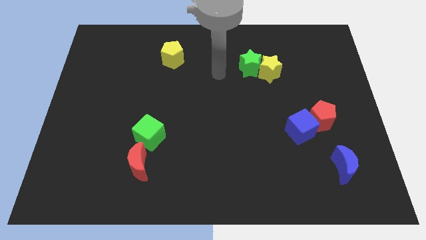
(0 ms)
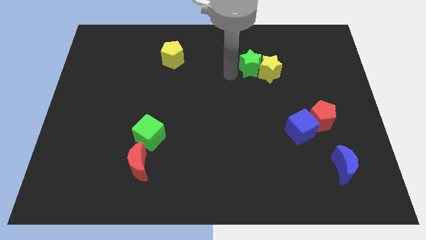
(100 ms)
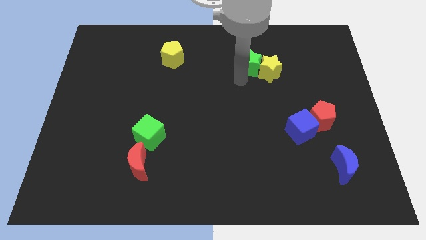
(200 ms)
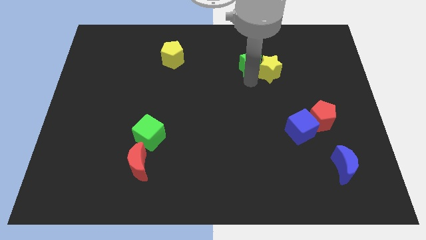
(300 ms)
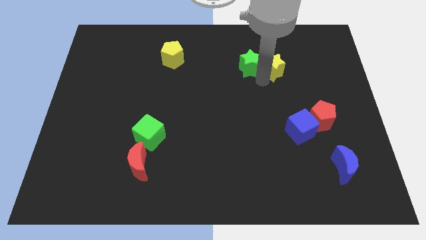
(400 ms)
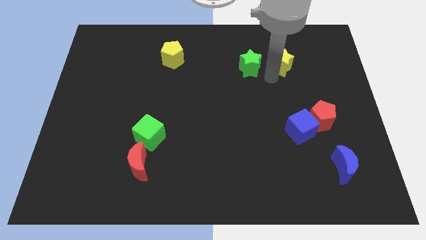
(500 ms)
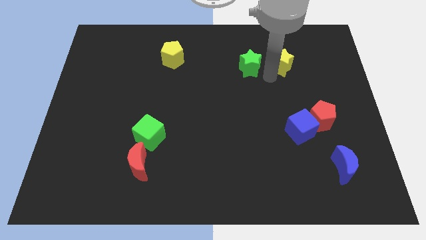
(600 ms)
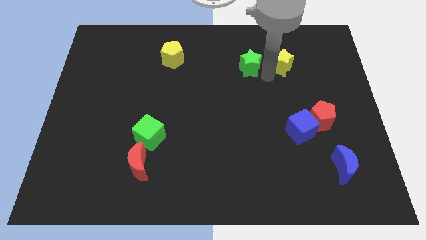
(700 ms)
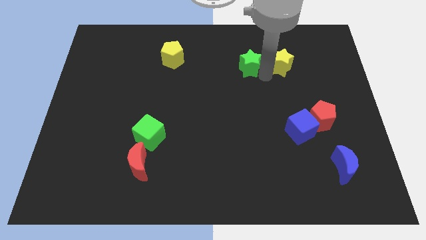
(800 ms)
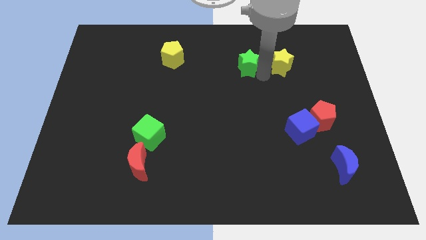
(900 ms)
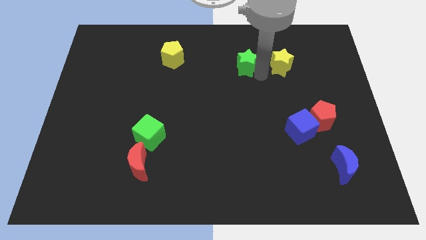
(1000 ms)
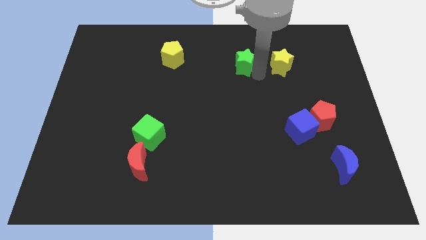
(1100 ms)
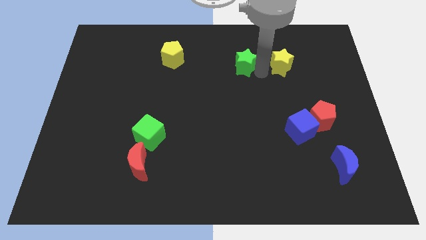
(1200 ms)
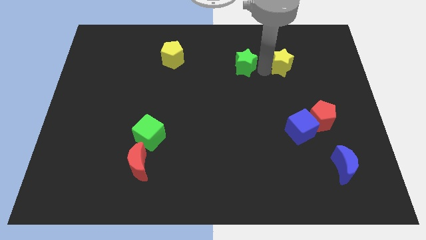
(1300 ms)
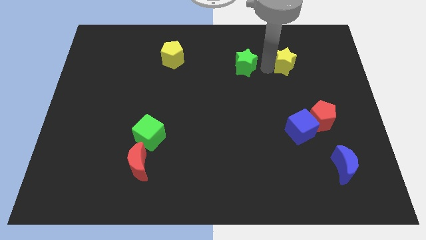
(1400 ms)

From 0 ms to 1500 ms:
move the green star away from the yellow star

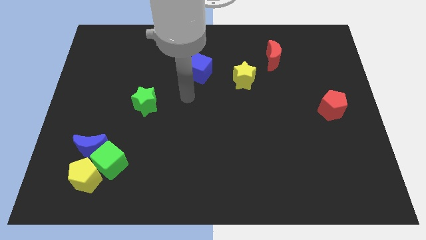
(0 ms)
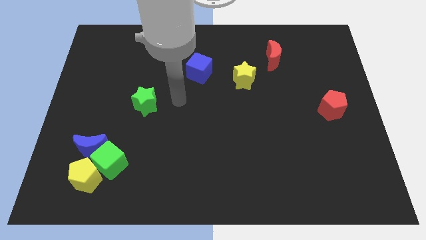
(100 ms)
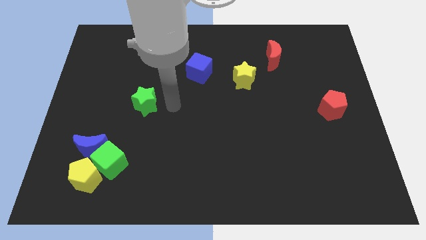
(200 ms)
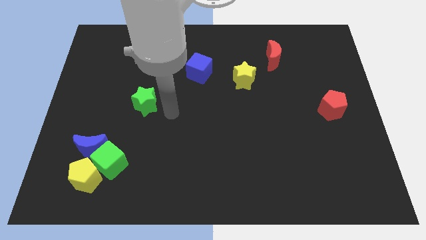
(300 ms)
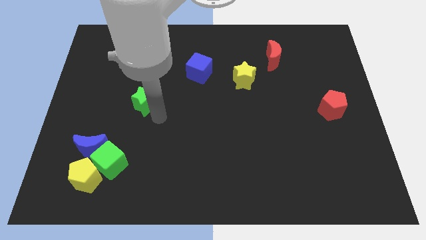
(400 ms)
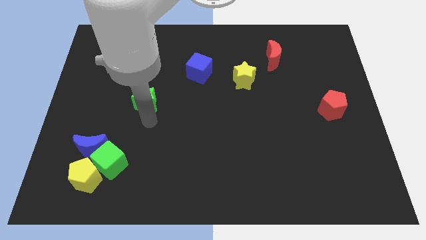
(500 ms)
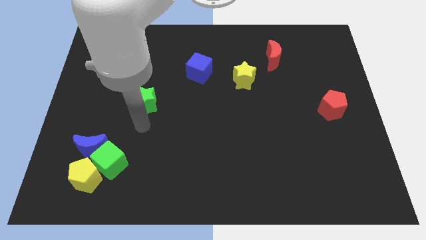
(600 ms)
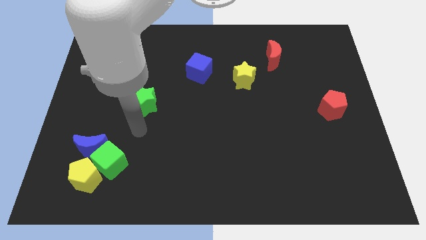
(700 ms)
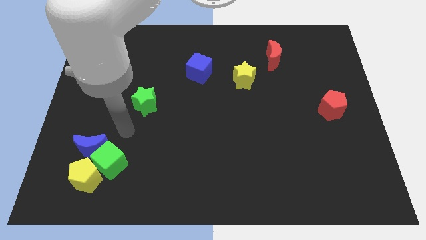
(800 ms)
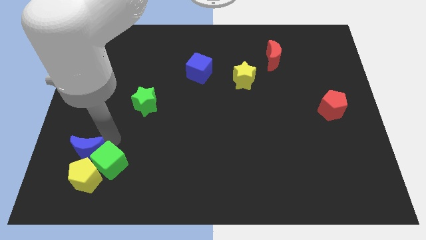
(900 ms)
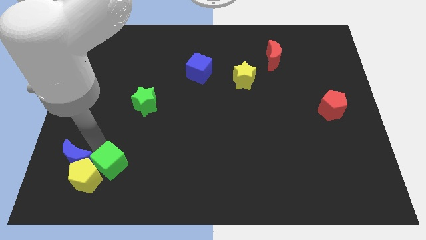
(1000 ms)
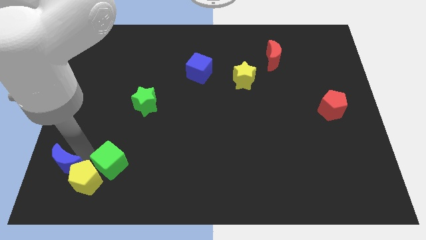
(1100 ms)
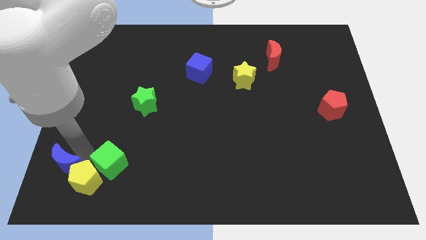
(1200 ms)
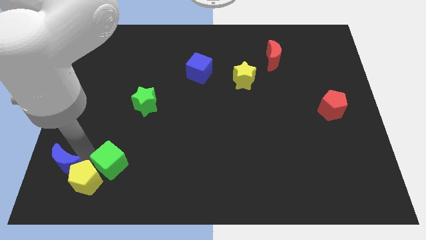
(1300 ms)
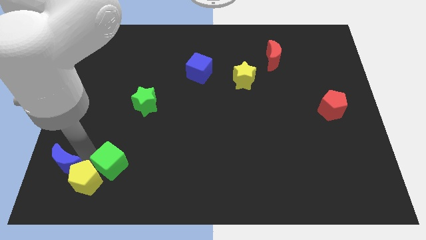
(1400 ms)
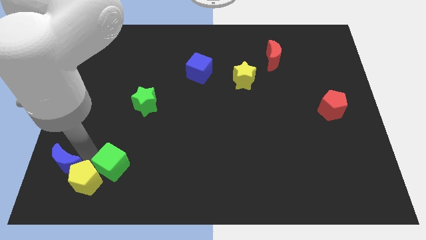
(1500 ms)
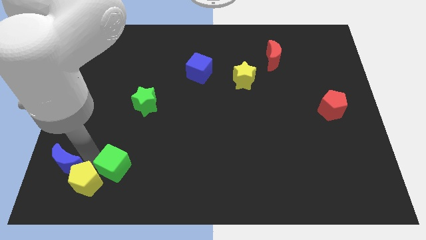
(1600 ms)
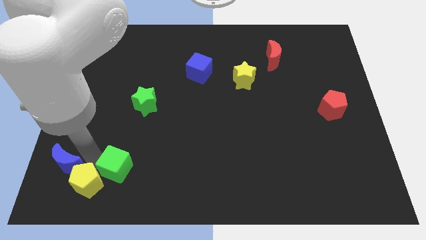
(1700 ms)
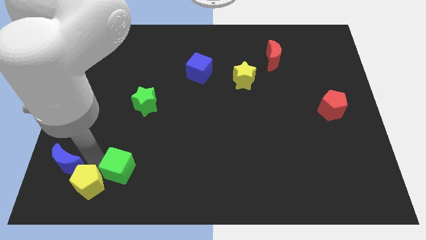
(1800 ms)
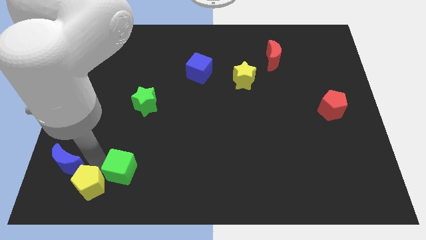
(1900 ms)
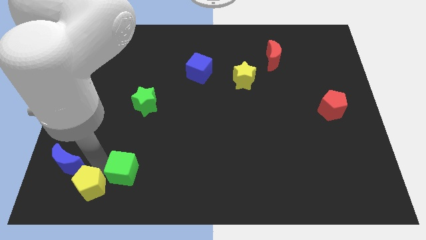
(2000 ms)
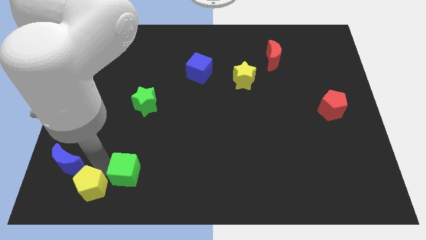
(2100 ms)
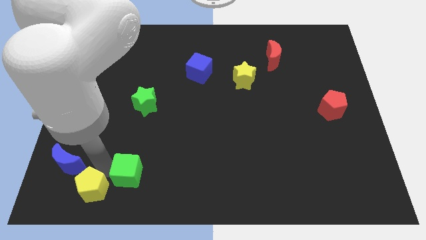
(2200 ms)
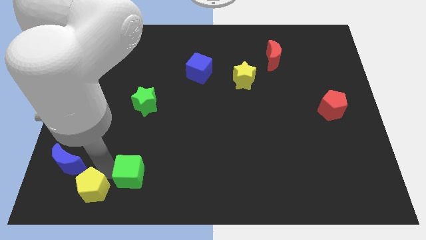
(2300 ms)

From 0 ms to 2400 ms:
pull the green cube apart from the yellow pentagon and blue moon

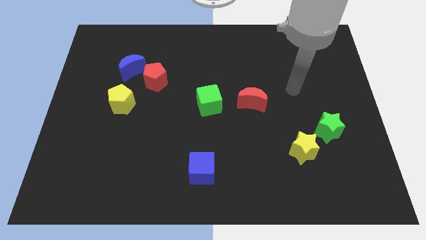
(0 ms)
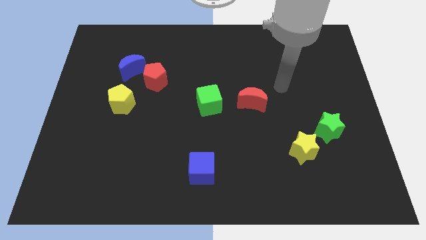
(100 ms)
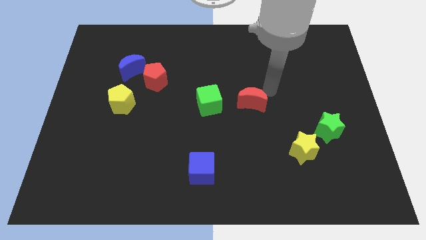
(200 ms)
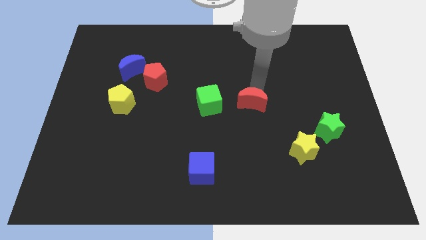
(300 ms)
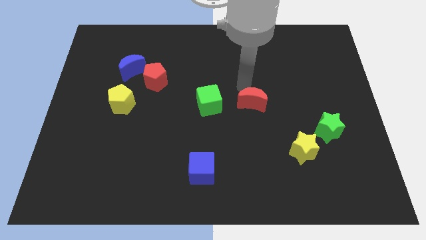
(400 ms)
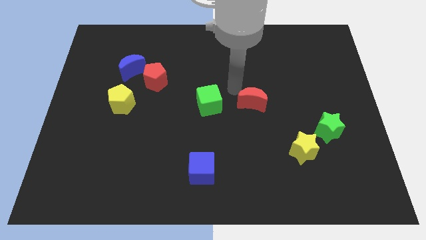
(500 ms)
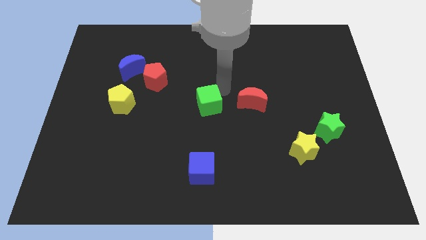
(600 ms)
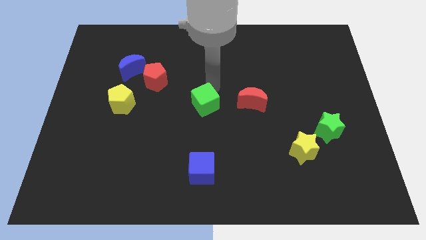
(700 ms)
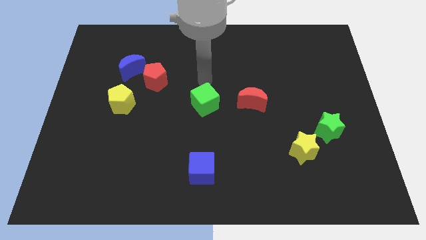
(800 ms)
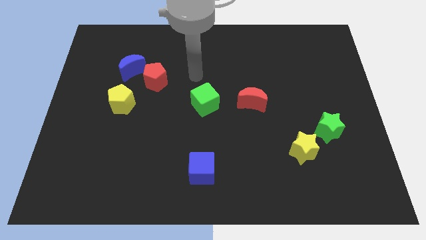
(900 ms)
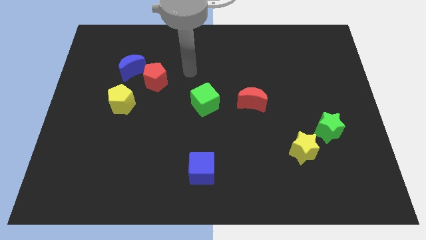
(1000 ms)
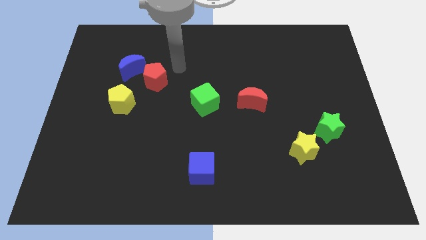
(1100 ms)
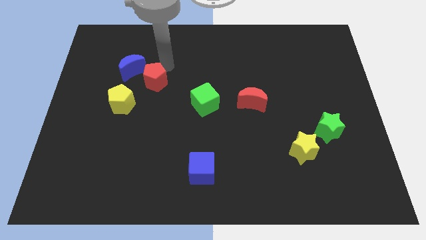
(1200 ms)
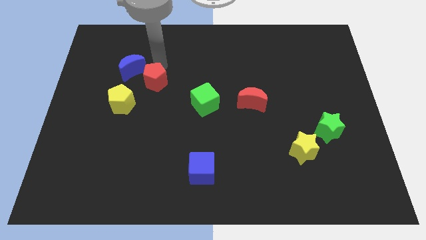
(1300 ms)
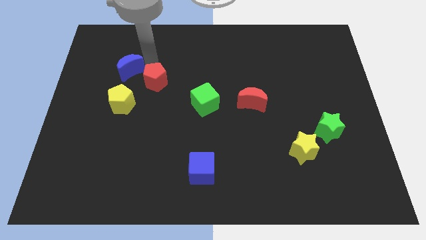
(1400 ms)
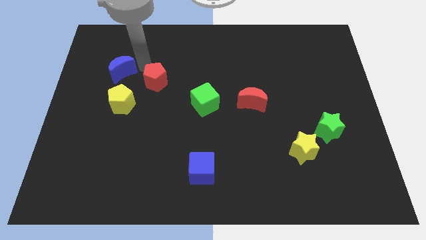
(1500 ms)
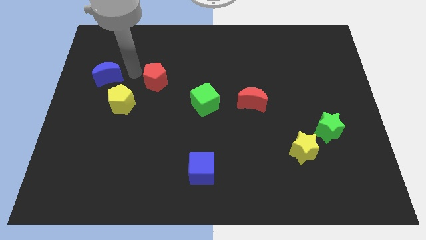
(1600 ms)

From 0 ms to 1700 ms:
pull the red pentagon apart from the blue moon

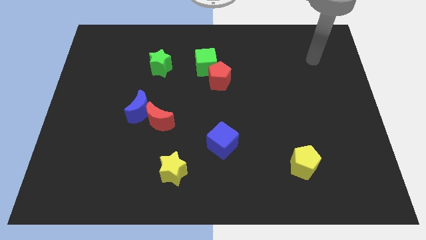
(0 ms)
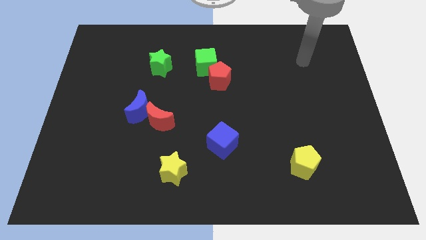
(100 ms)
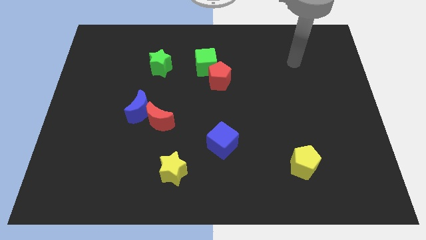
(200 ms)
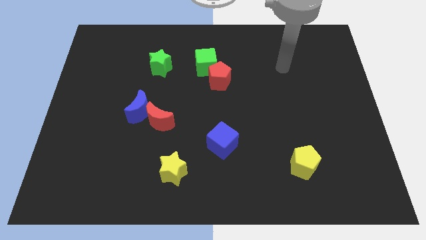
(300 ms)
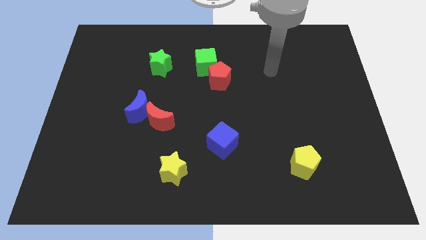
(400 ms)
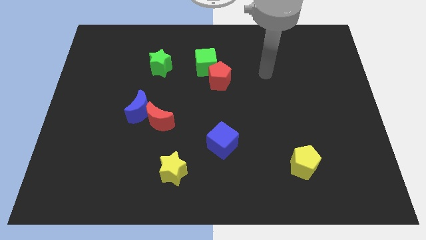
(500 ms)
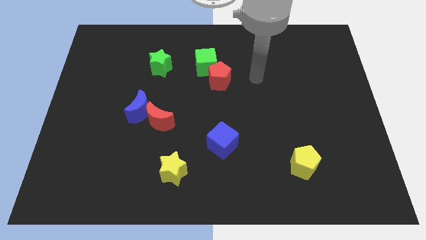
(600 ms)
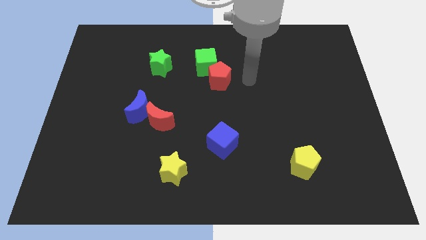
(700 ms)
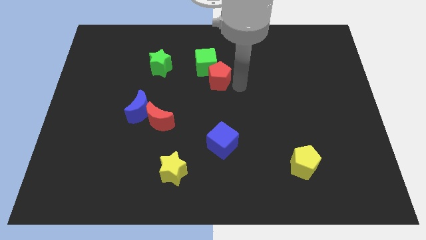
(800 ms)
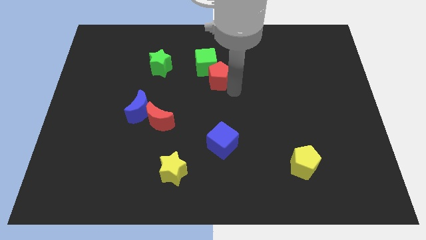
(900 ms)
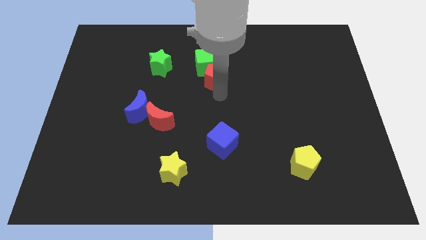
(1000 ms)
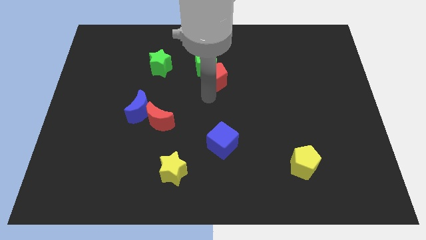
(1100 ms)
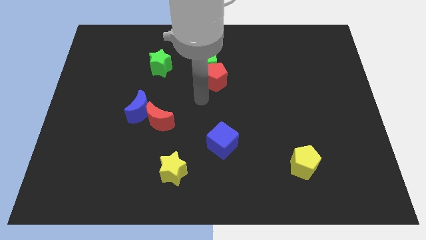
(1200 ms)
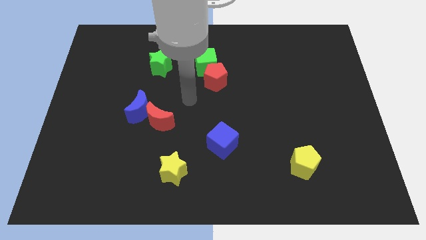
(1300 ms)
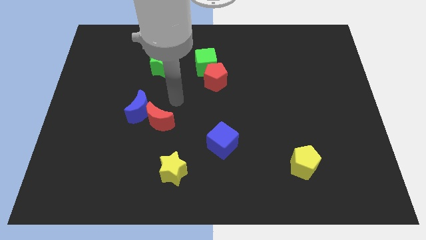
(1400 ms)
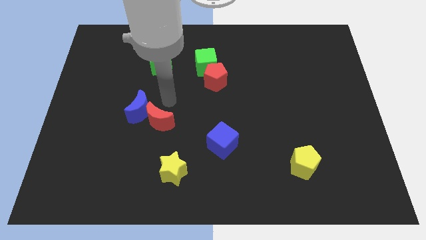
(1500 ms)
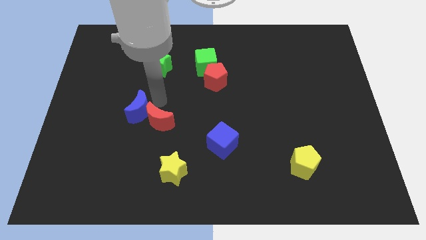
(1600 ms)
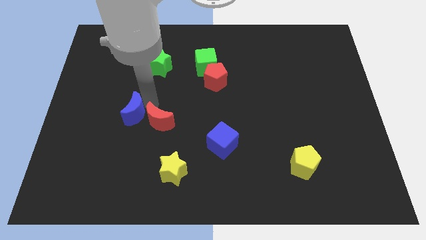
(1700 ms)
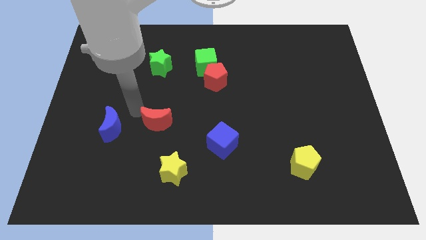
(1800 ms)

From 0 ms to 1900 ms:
move the red moon away from the blue moon

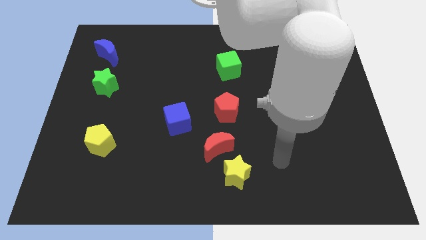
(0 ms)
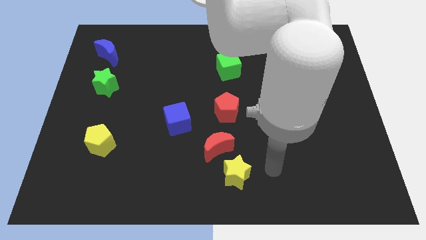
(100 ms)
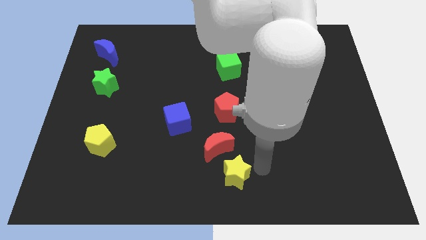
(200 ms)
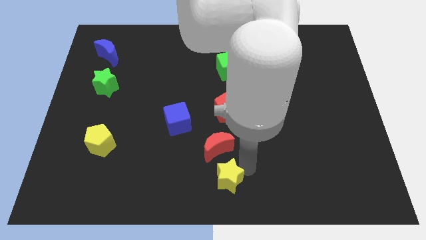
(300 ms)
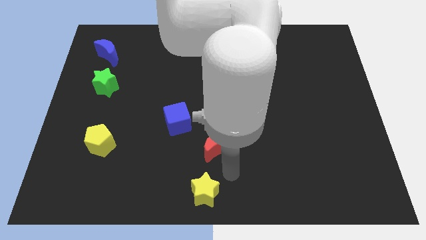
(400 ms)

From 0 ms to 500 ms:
separate the red moon from the yellow star

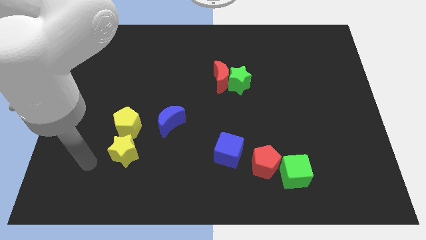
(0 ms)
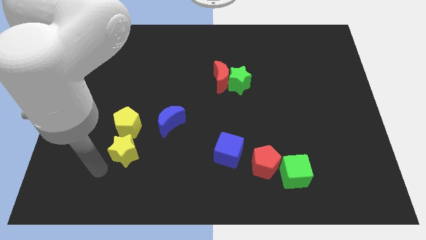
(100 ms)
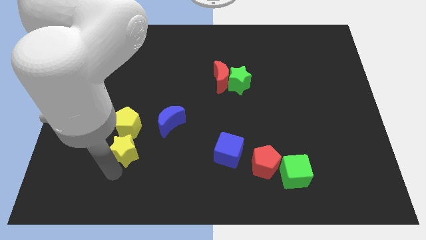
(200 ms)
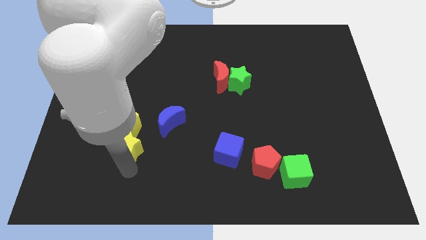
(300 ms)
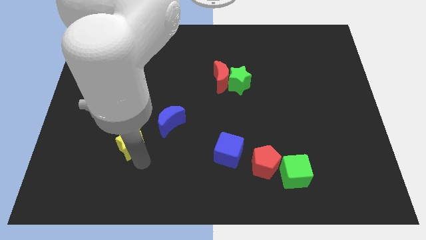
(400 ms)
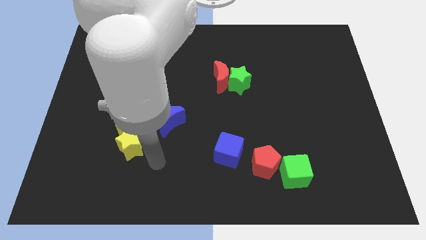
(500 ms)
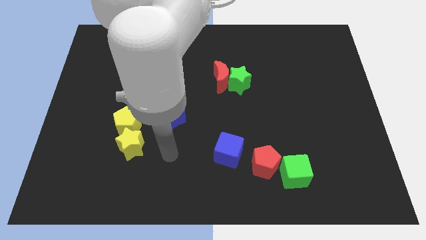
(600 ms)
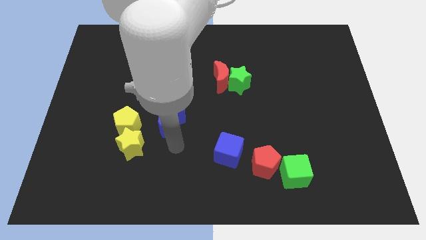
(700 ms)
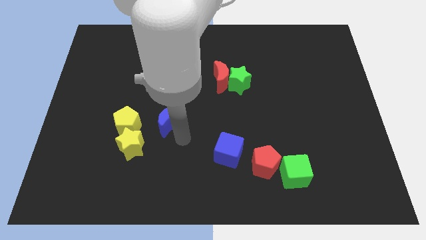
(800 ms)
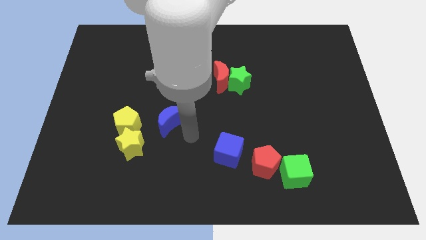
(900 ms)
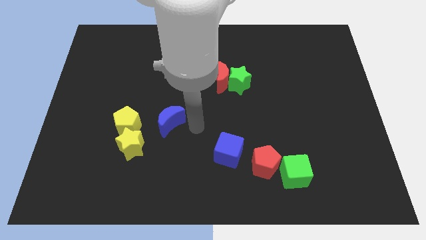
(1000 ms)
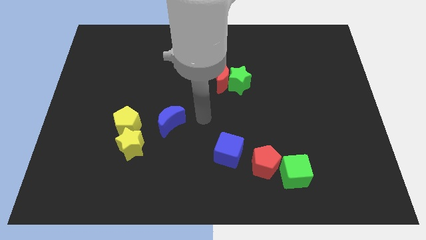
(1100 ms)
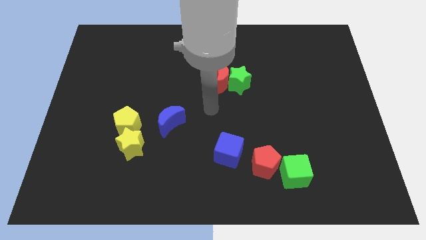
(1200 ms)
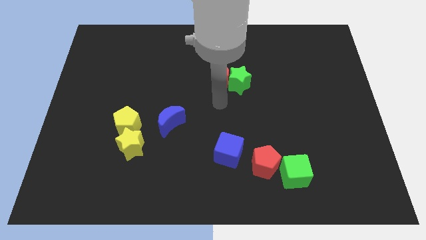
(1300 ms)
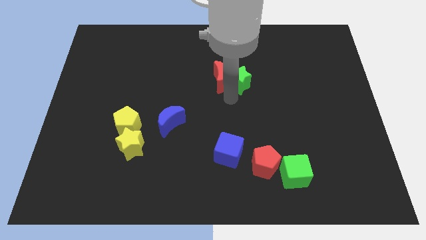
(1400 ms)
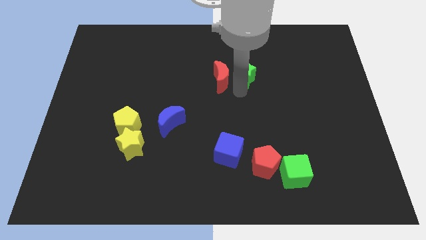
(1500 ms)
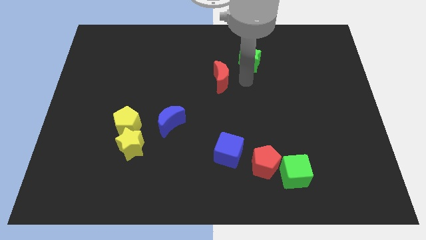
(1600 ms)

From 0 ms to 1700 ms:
move the red moon away from the green star
